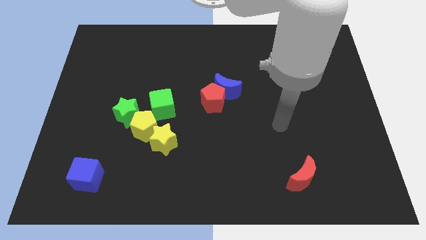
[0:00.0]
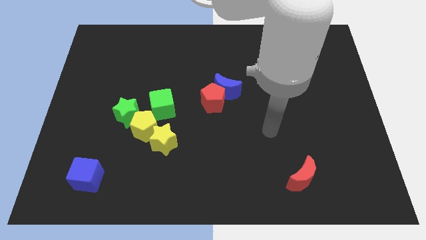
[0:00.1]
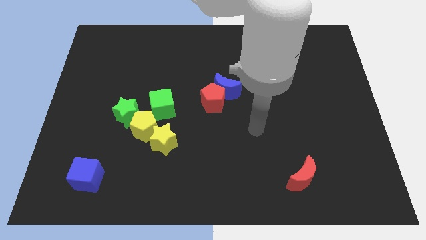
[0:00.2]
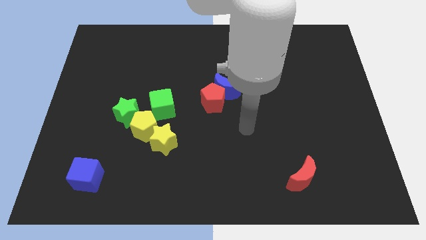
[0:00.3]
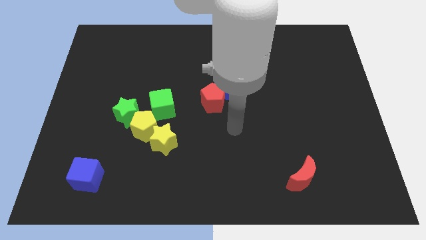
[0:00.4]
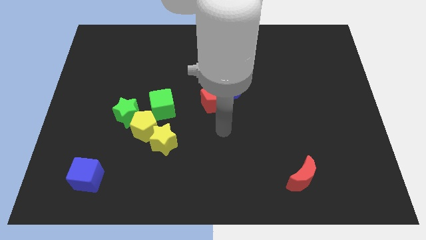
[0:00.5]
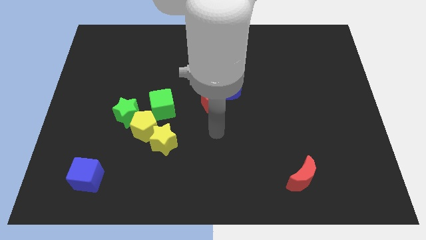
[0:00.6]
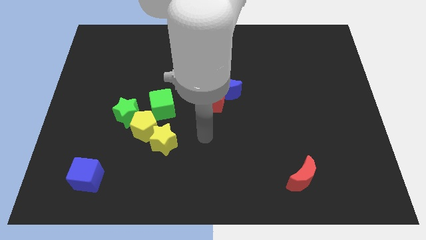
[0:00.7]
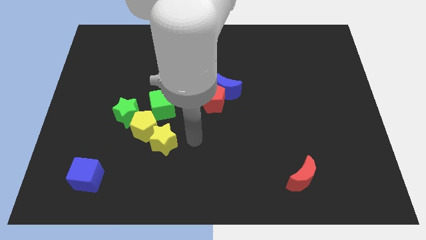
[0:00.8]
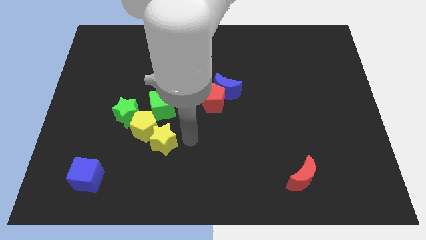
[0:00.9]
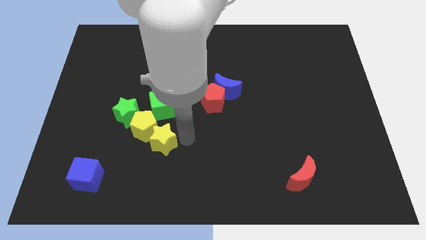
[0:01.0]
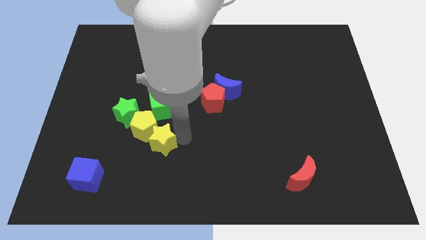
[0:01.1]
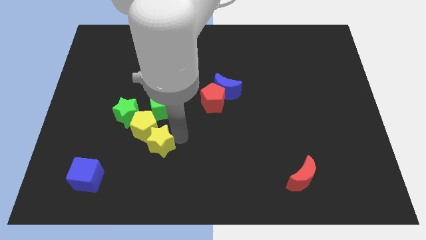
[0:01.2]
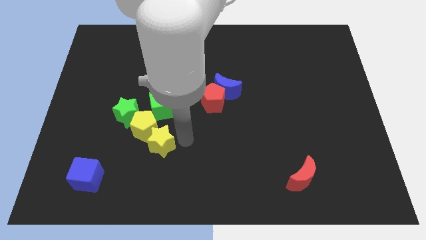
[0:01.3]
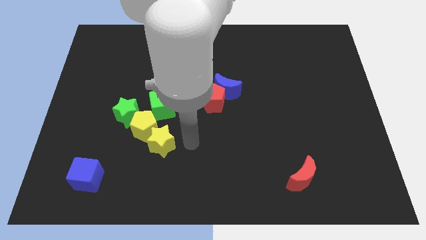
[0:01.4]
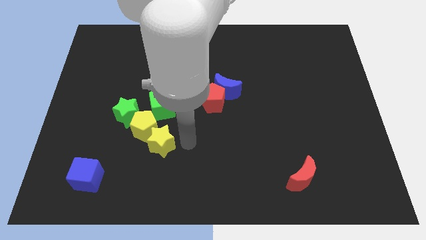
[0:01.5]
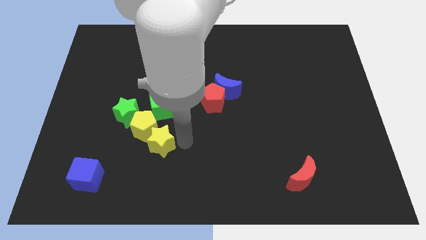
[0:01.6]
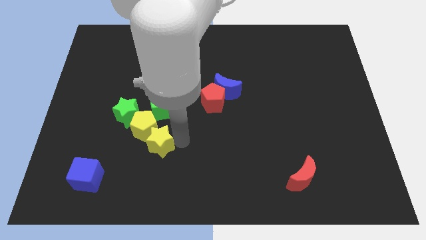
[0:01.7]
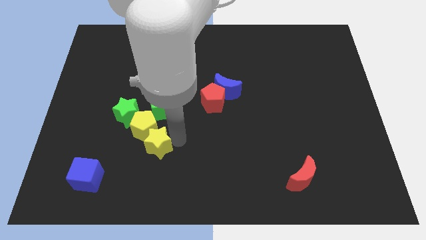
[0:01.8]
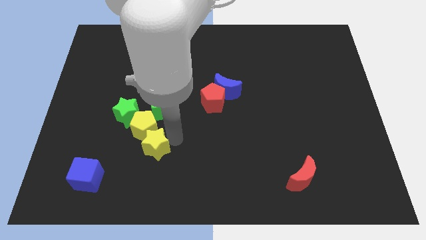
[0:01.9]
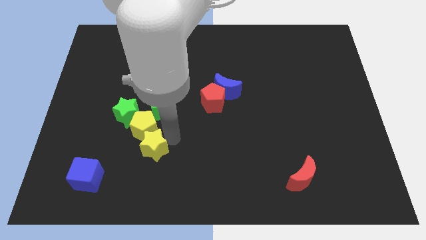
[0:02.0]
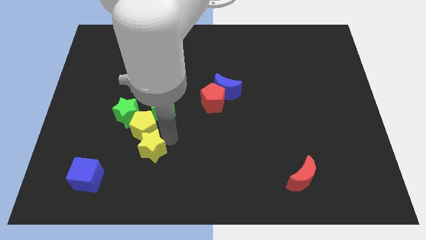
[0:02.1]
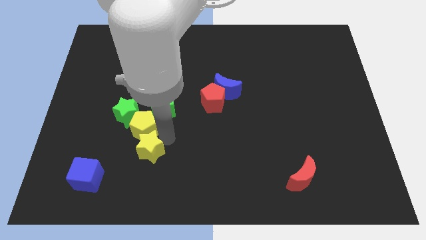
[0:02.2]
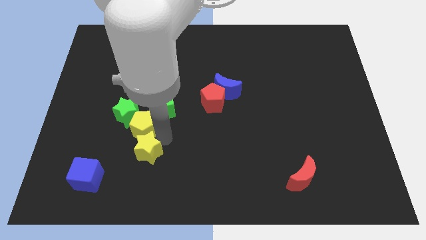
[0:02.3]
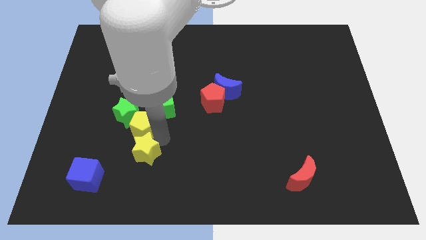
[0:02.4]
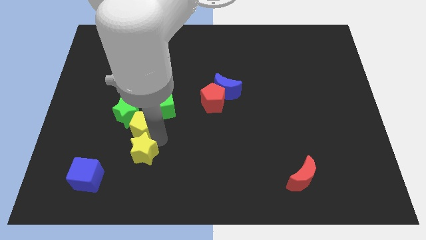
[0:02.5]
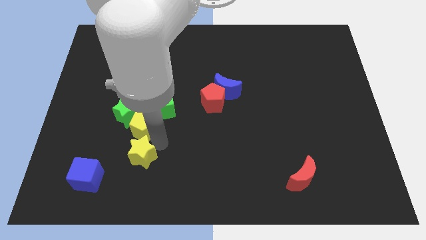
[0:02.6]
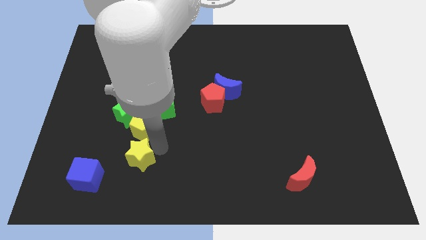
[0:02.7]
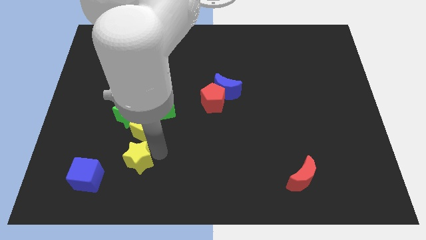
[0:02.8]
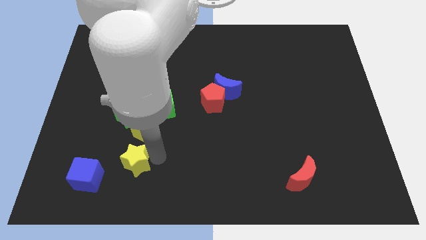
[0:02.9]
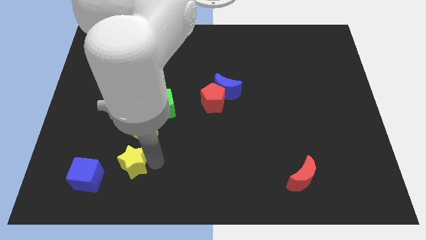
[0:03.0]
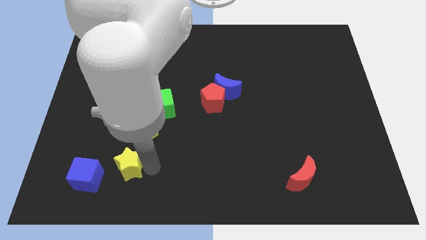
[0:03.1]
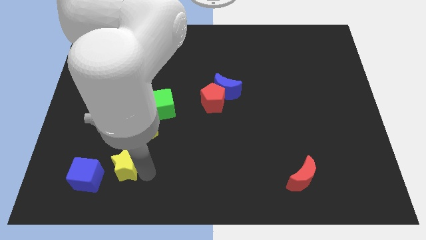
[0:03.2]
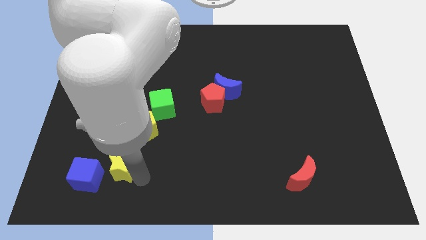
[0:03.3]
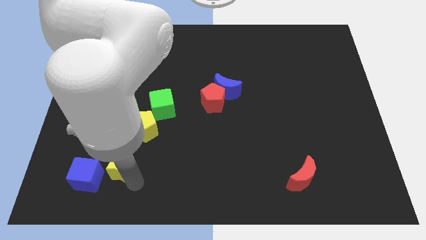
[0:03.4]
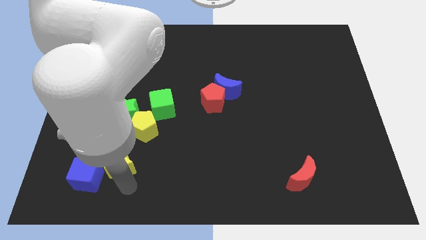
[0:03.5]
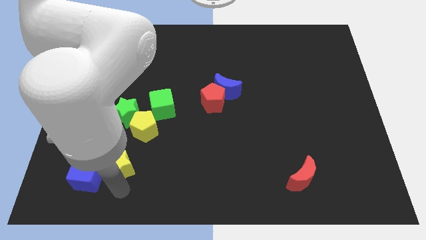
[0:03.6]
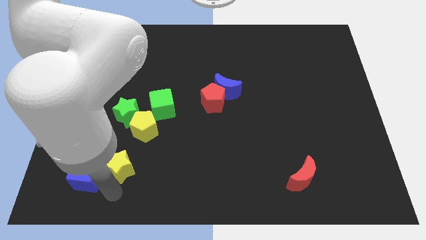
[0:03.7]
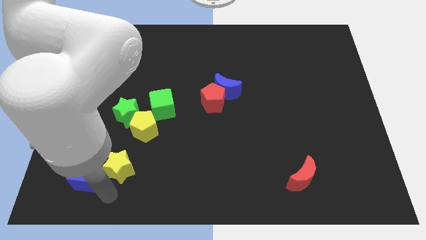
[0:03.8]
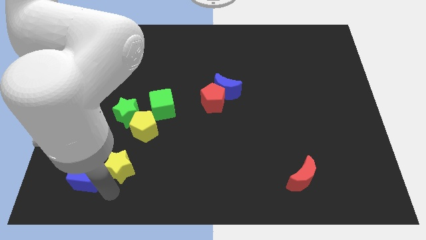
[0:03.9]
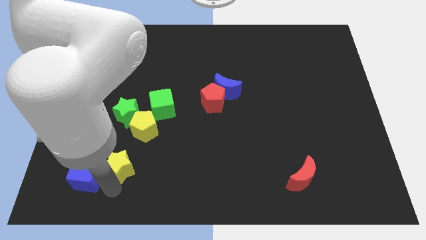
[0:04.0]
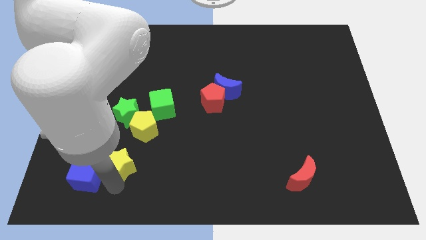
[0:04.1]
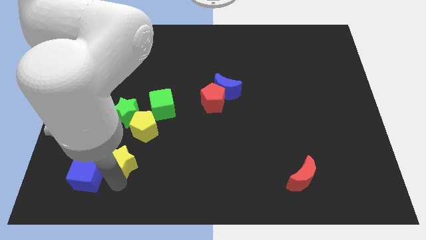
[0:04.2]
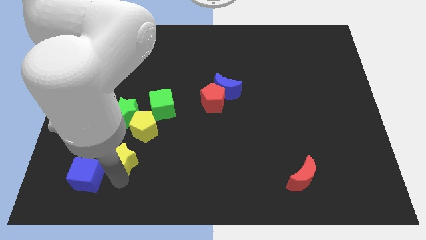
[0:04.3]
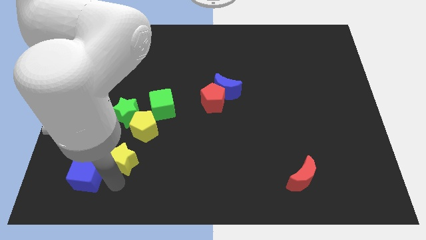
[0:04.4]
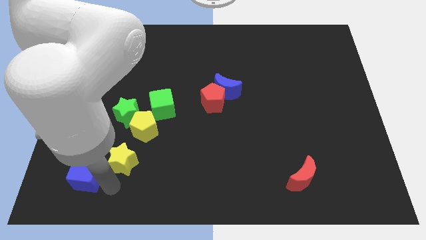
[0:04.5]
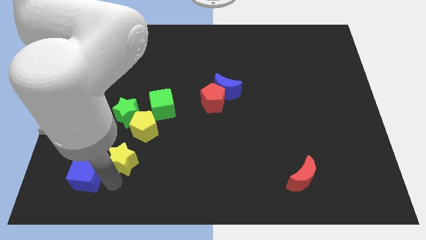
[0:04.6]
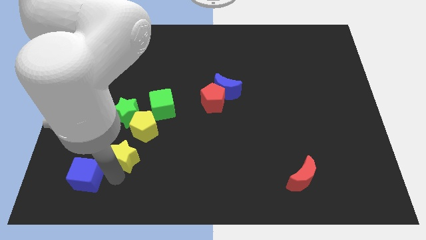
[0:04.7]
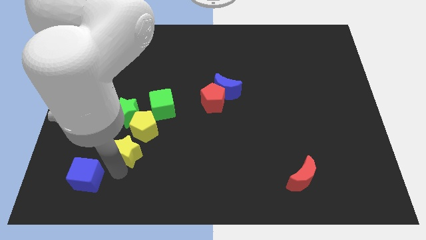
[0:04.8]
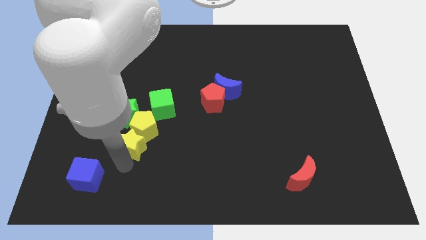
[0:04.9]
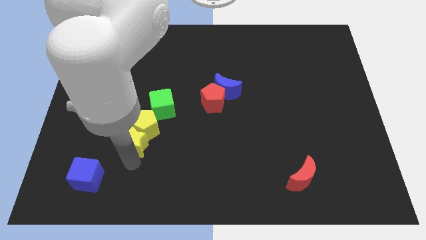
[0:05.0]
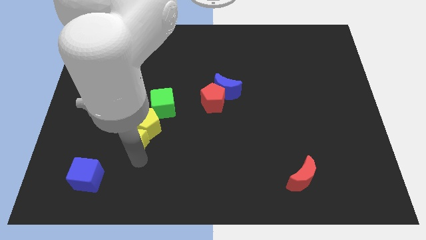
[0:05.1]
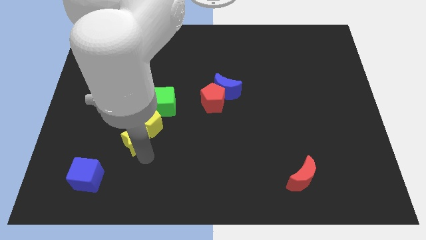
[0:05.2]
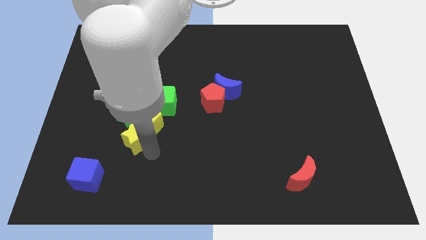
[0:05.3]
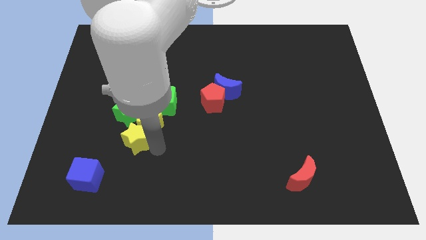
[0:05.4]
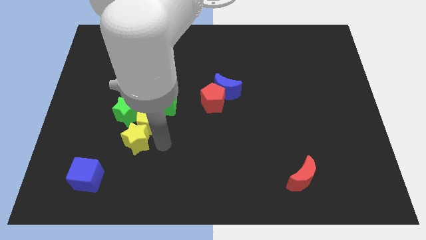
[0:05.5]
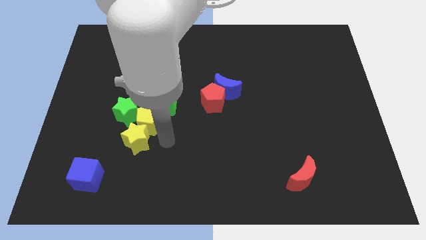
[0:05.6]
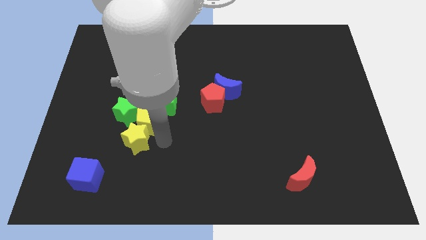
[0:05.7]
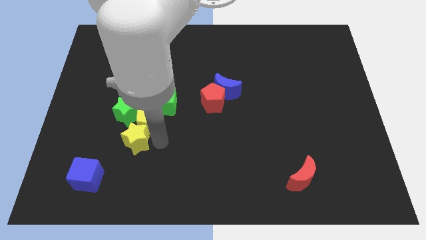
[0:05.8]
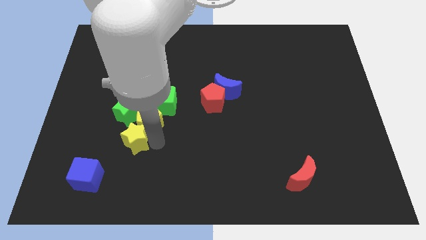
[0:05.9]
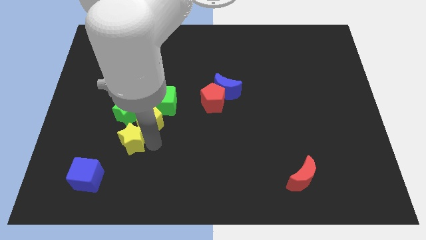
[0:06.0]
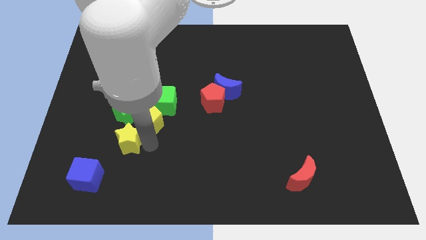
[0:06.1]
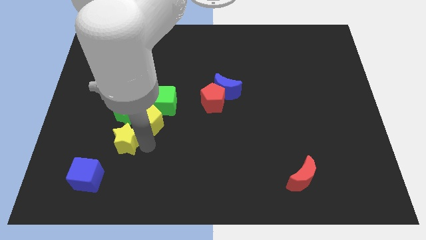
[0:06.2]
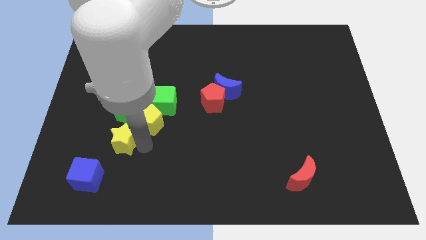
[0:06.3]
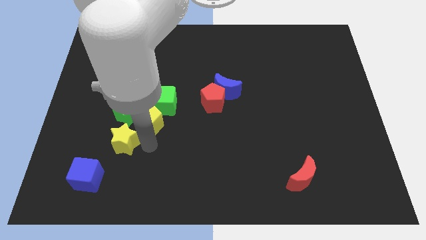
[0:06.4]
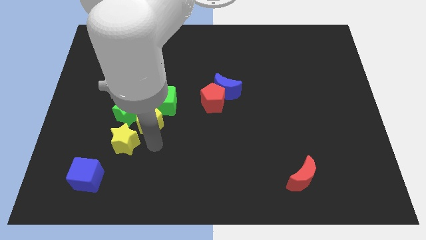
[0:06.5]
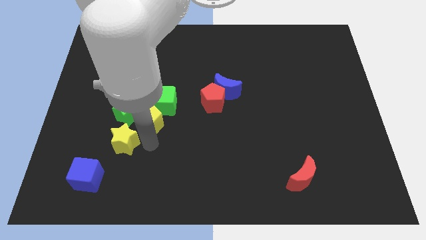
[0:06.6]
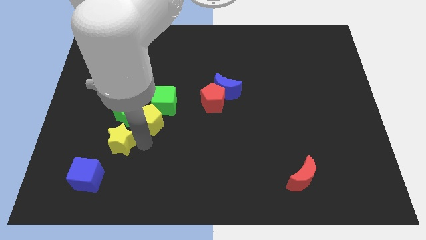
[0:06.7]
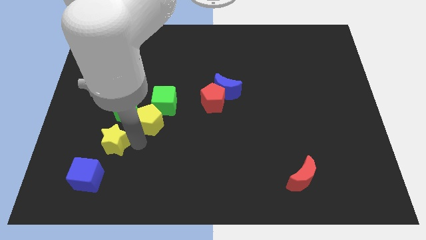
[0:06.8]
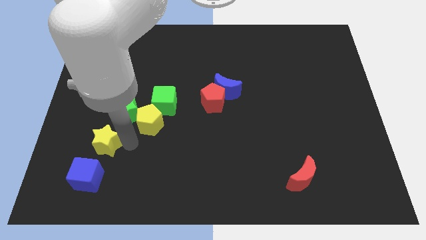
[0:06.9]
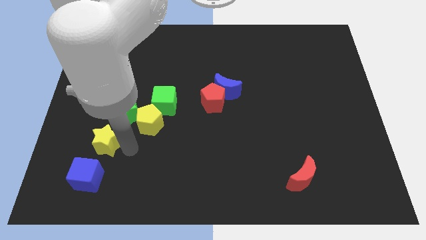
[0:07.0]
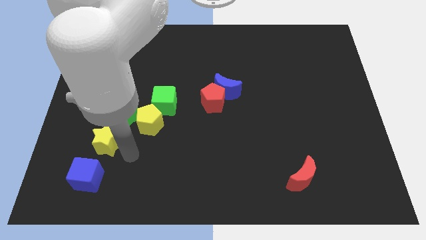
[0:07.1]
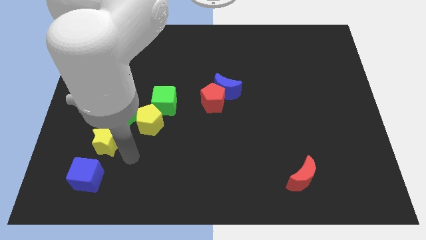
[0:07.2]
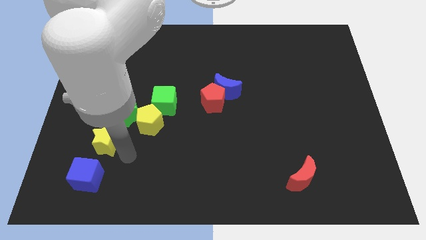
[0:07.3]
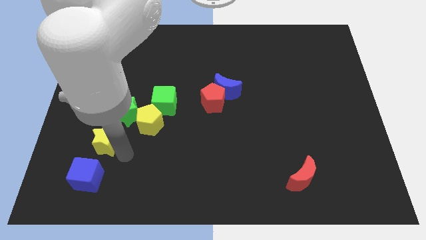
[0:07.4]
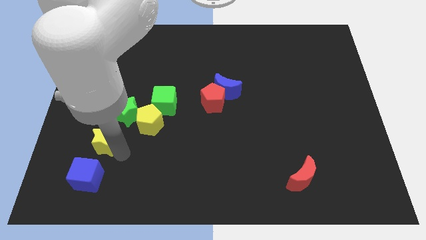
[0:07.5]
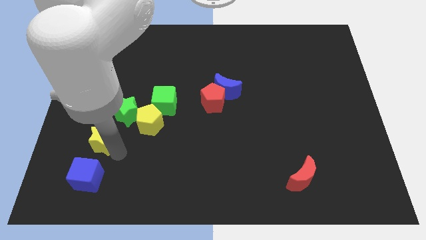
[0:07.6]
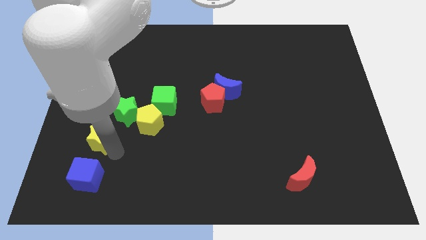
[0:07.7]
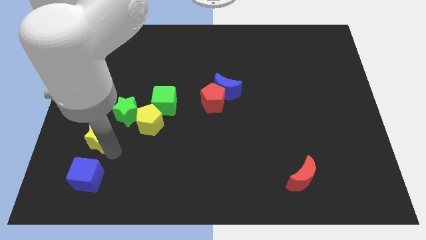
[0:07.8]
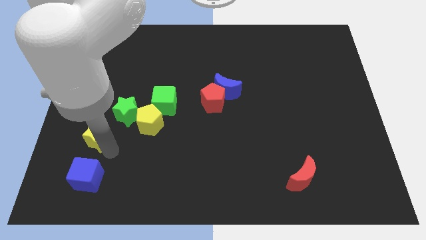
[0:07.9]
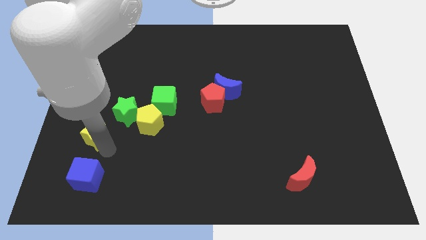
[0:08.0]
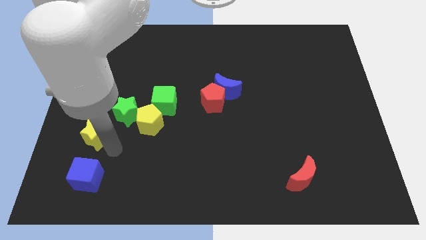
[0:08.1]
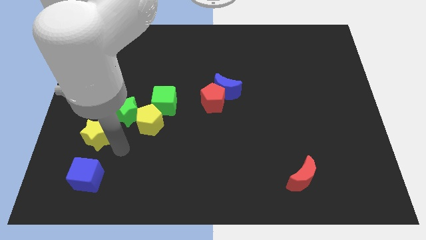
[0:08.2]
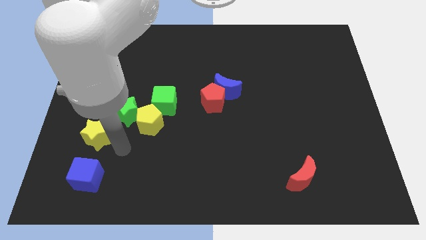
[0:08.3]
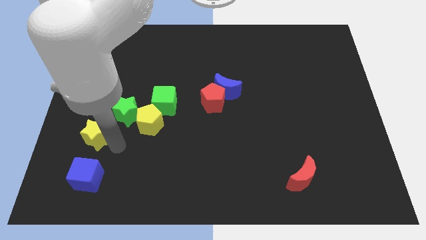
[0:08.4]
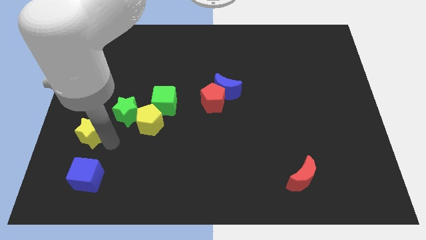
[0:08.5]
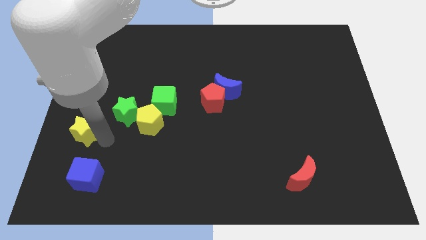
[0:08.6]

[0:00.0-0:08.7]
slide the yellow star to the left side
